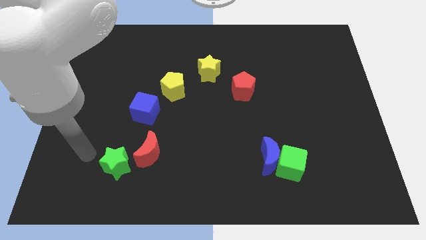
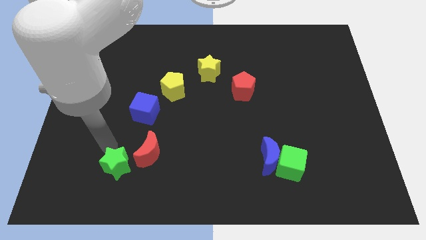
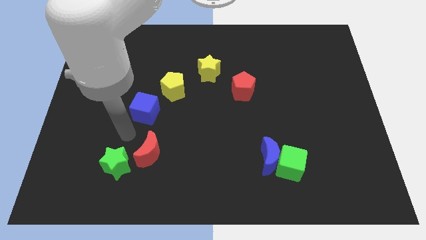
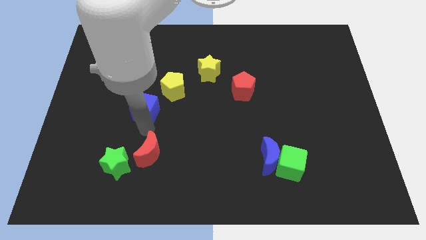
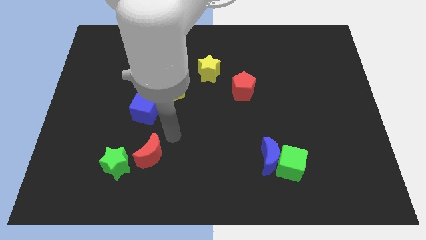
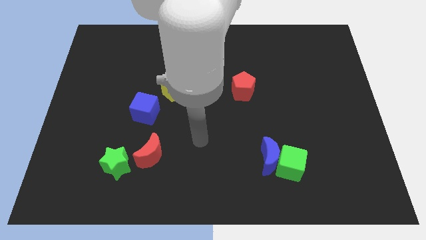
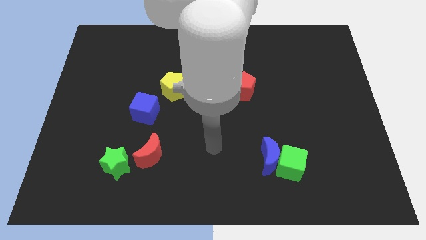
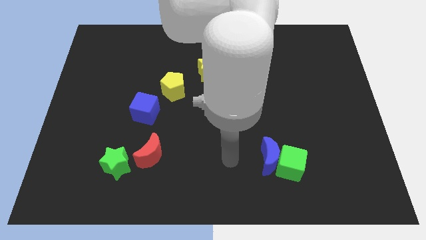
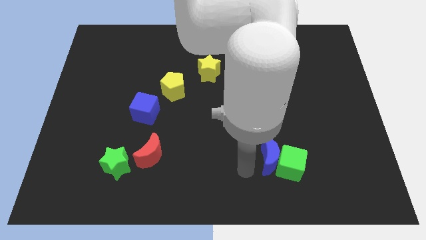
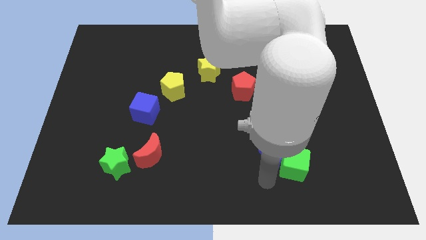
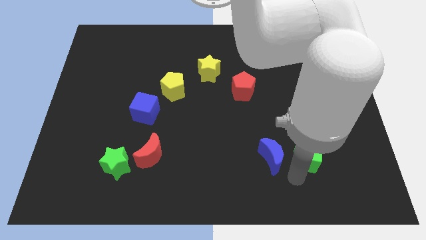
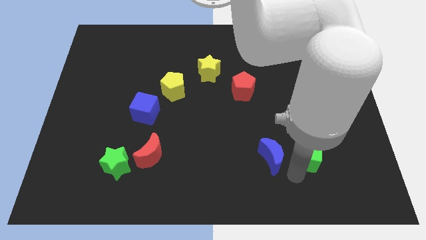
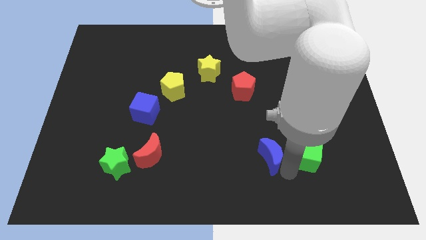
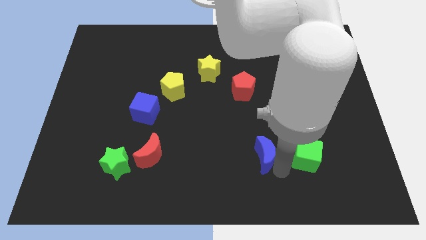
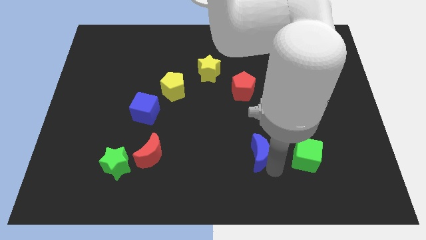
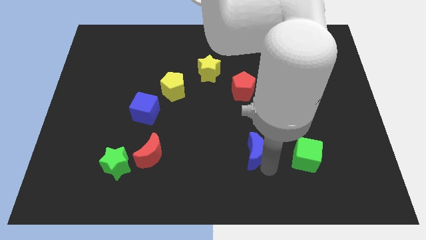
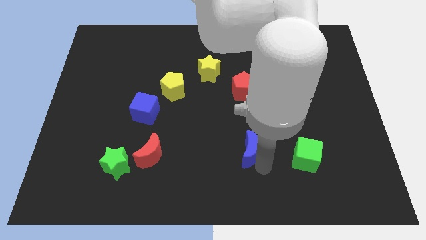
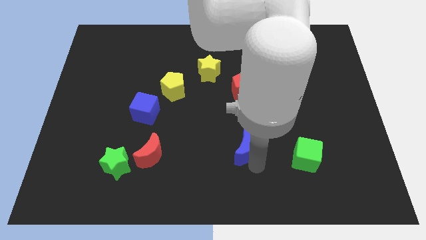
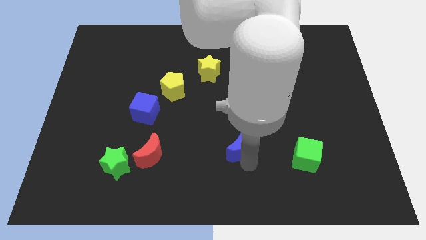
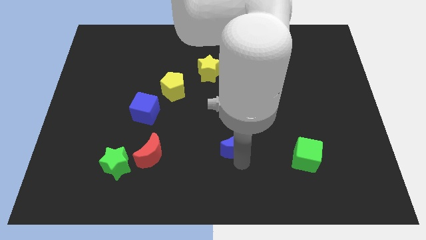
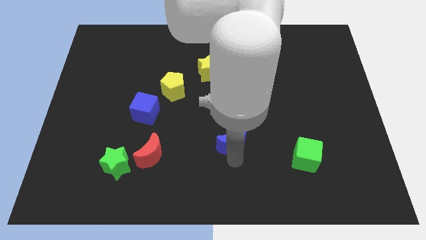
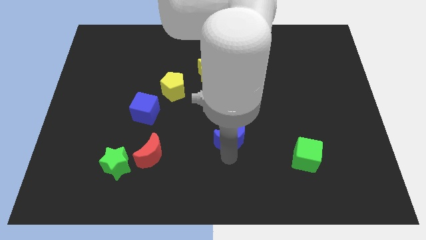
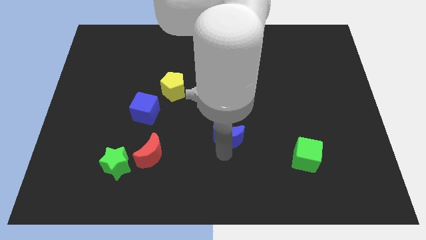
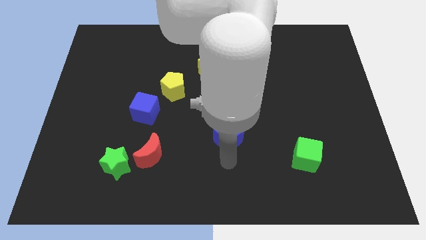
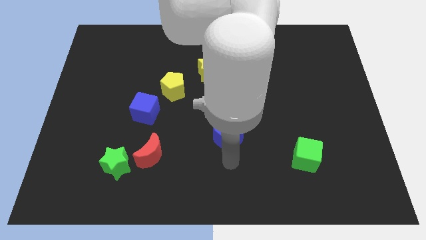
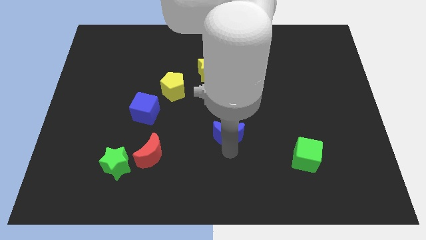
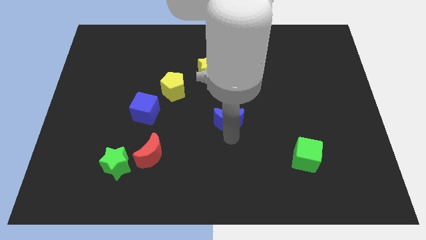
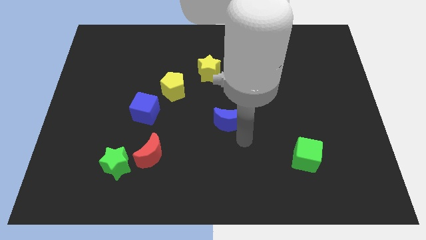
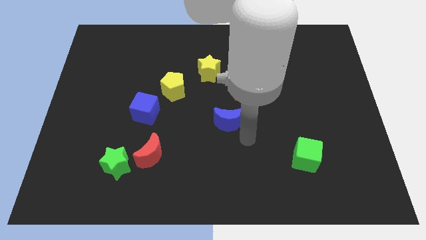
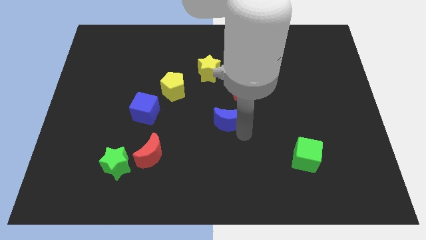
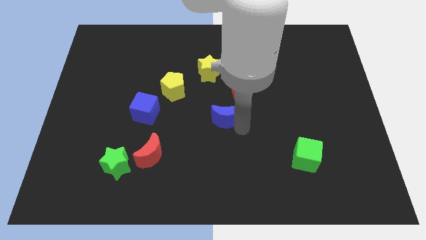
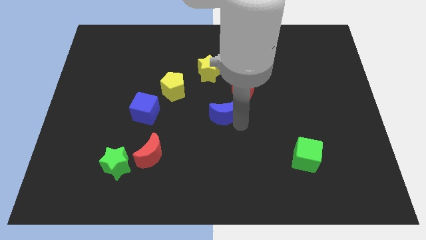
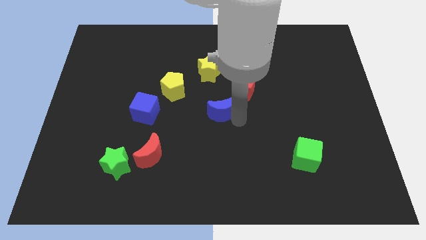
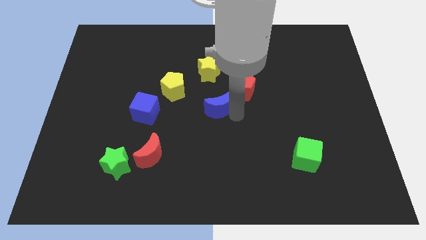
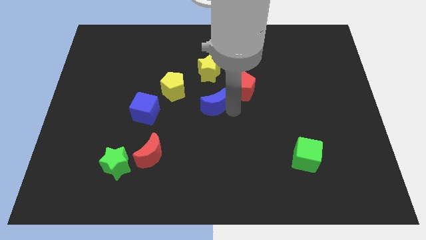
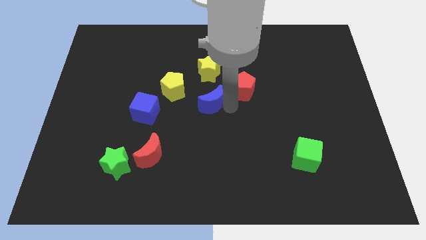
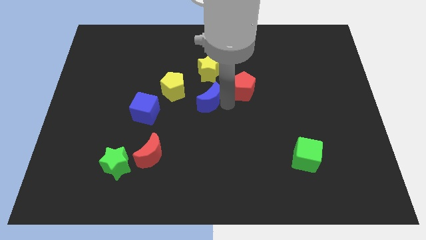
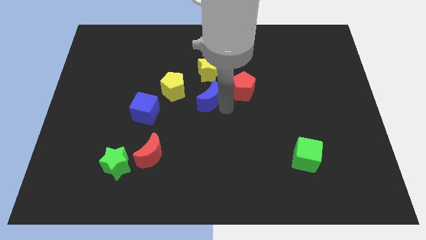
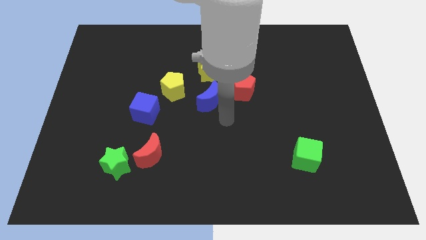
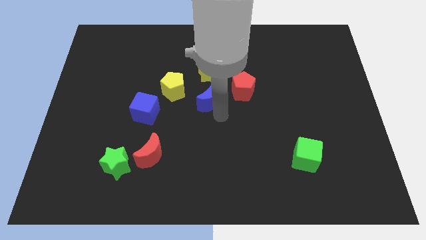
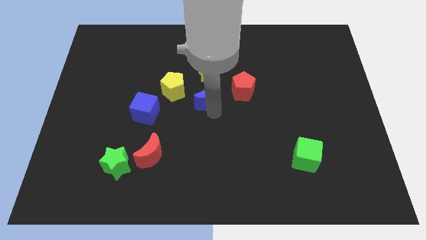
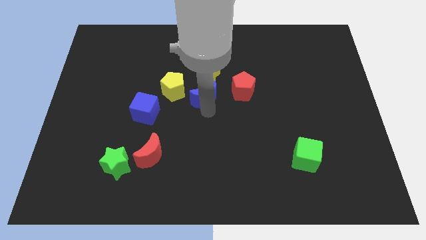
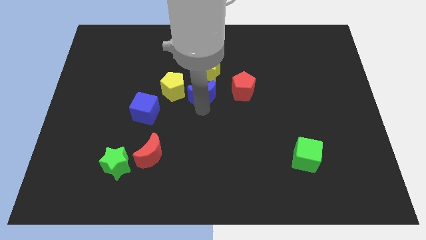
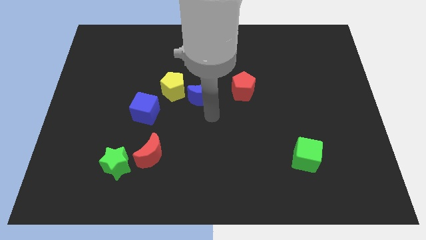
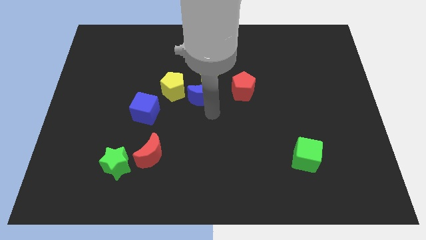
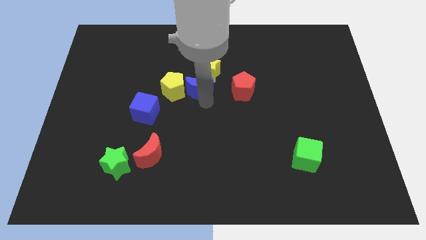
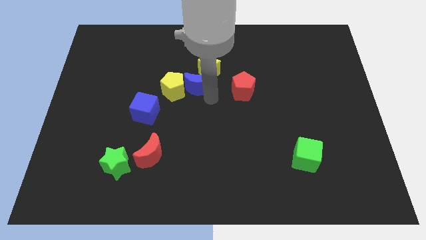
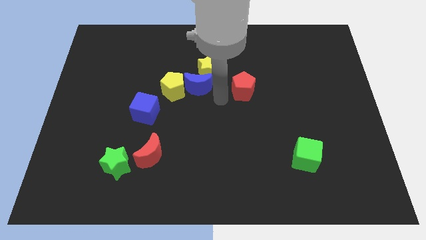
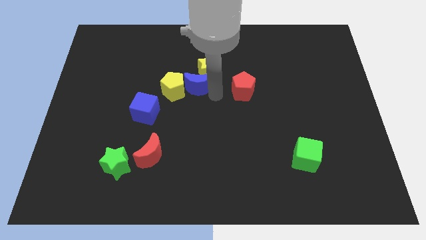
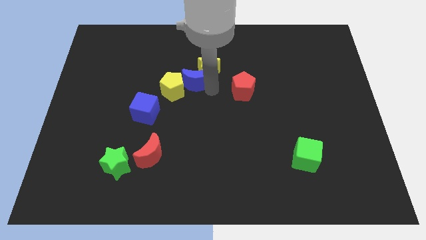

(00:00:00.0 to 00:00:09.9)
push the blue moon to the left of the yellow star

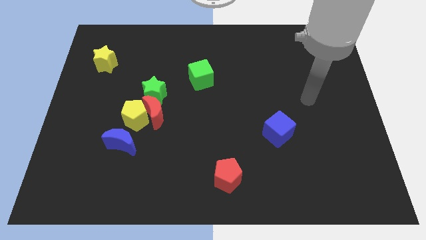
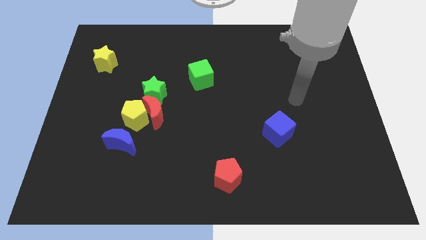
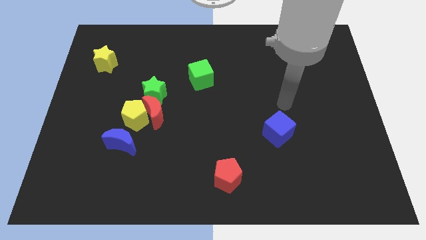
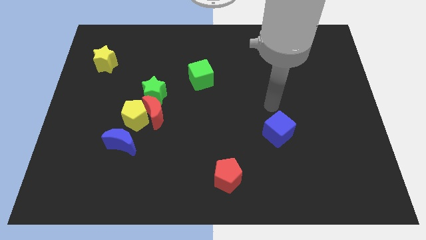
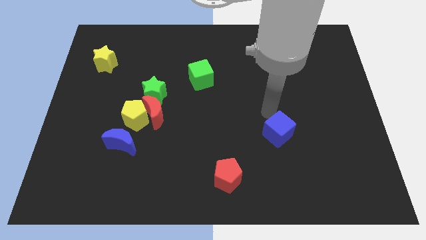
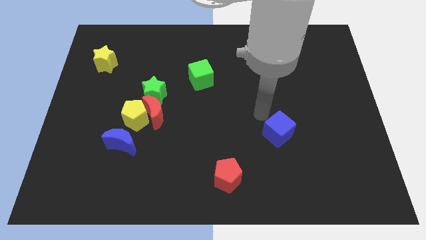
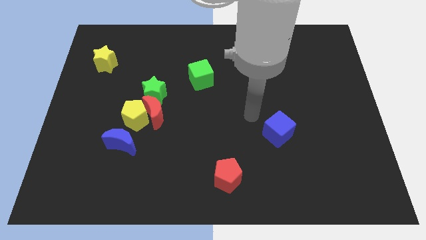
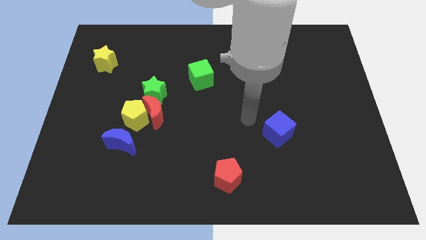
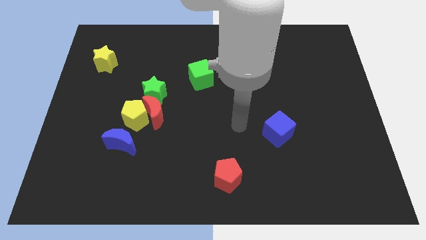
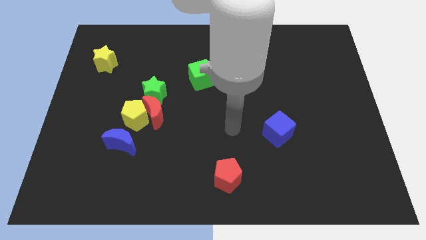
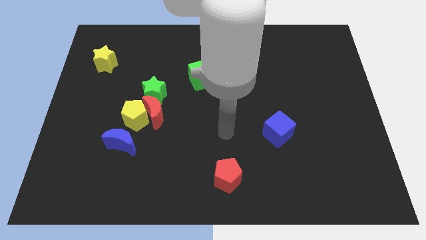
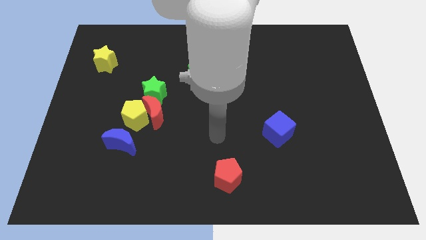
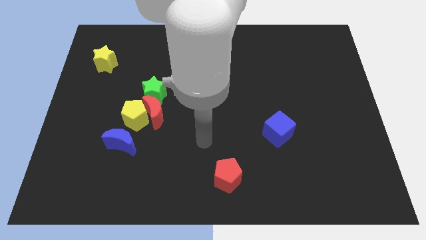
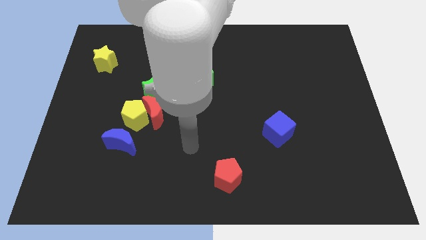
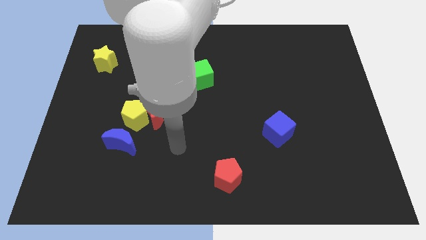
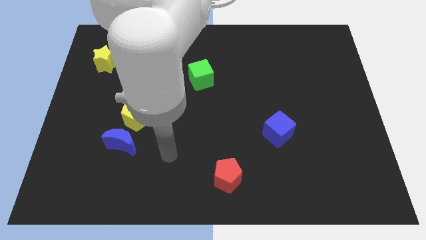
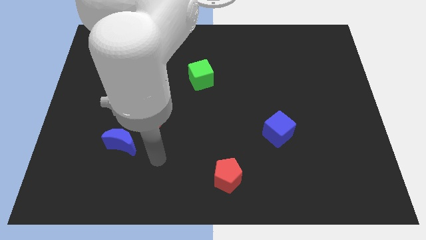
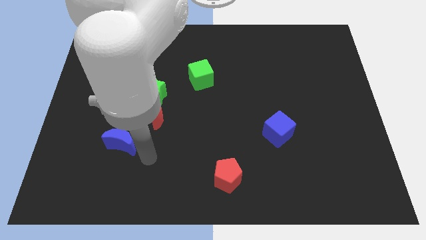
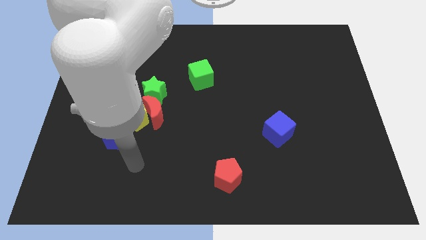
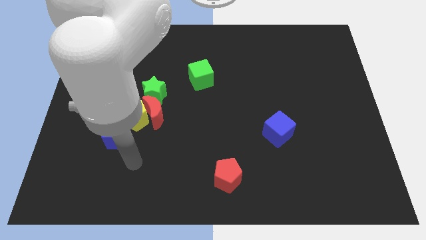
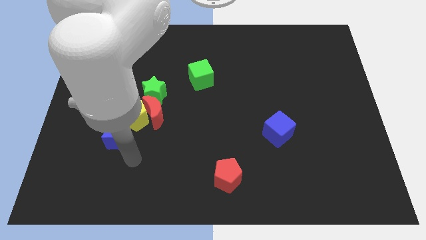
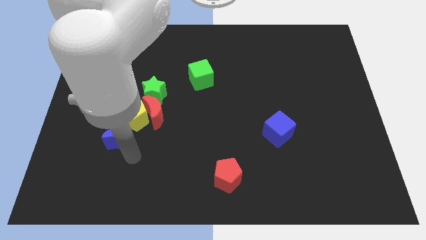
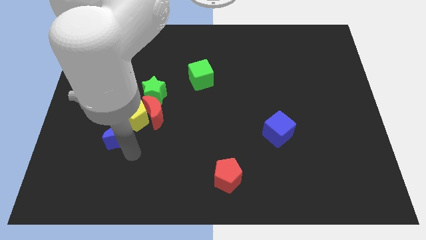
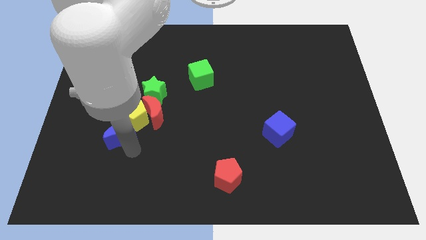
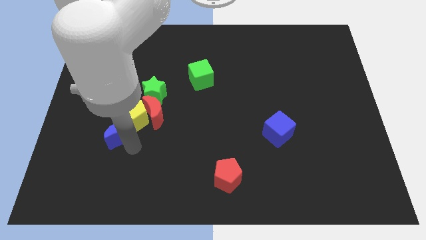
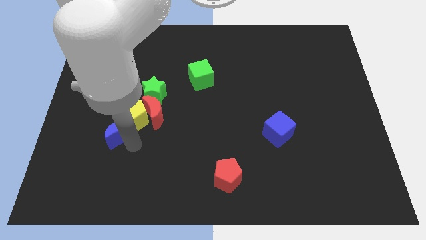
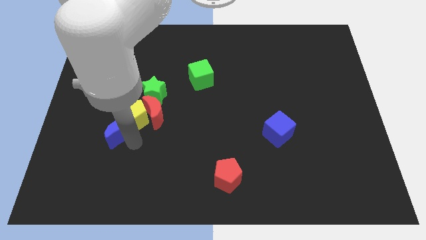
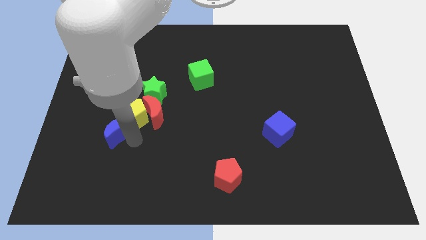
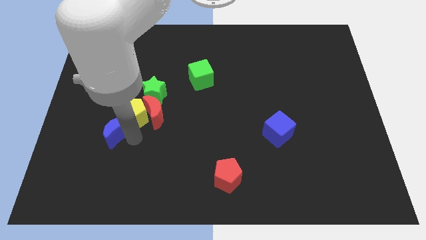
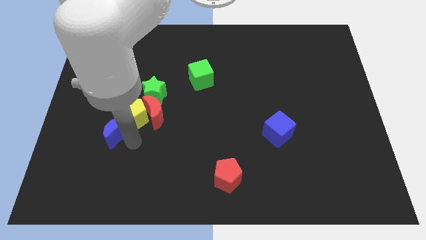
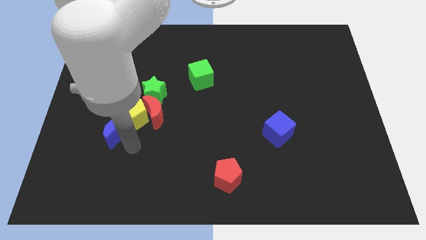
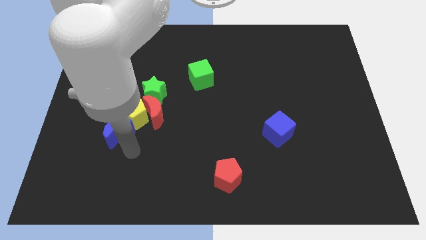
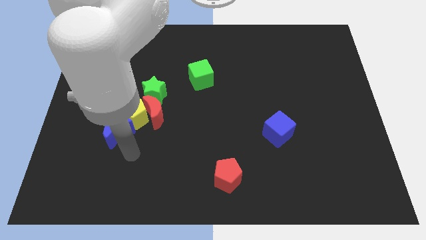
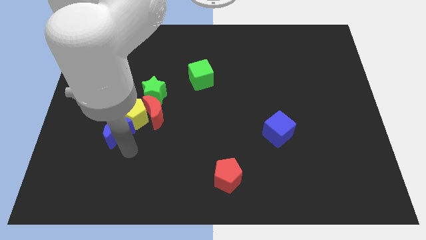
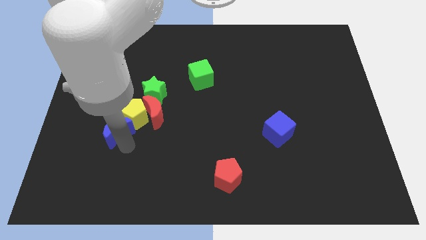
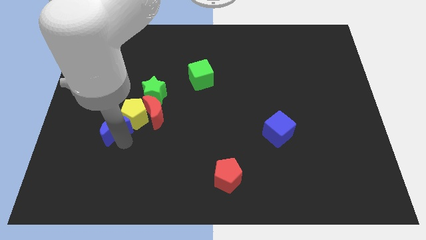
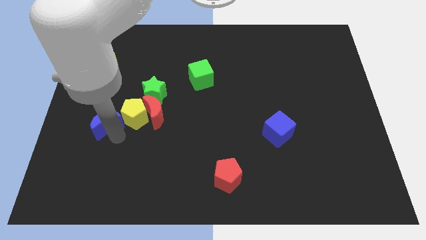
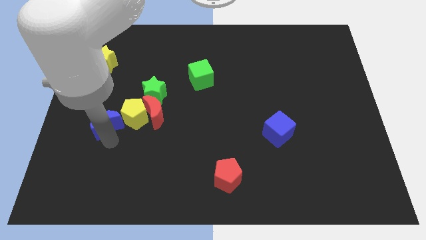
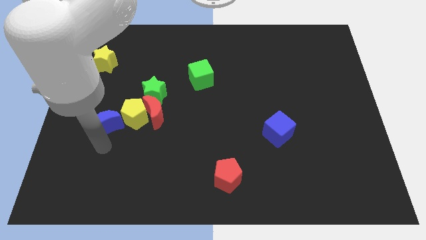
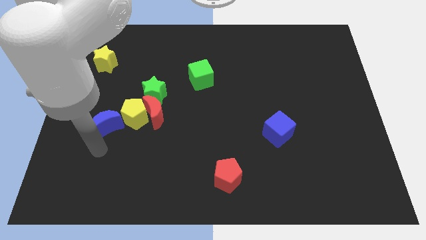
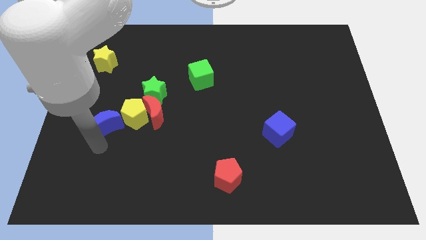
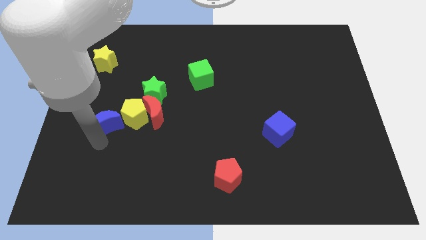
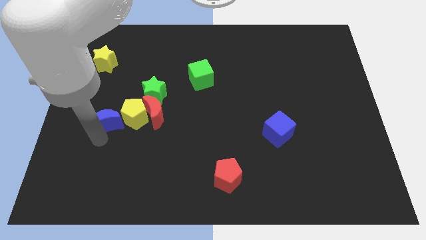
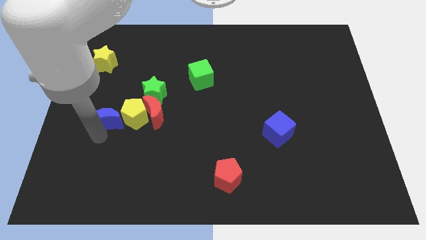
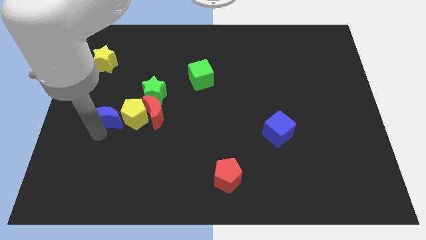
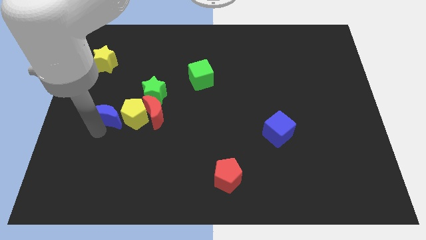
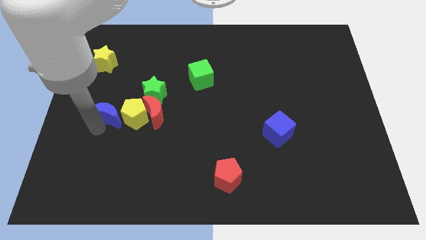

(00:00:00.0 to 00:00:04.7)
push the blue moon to the top left side of the yellow pentagon
